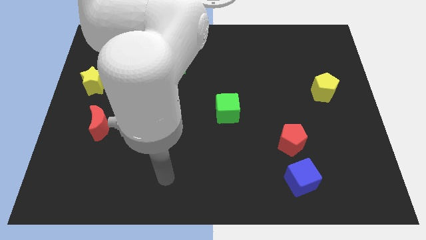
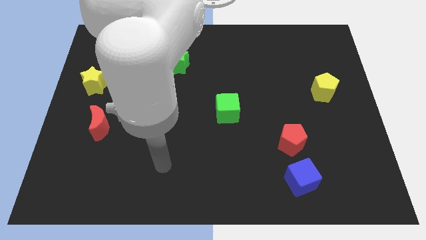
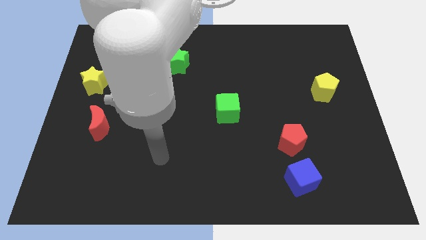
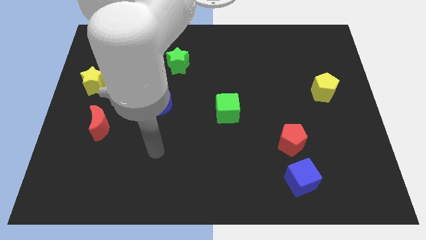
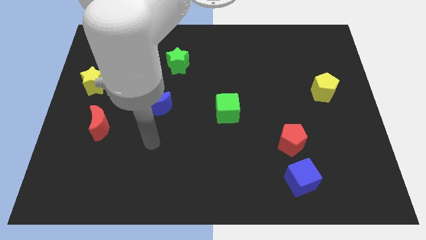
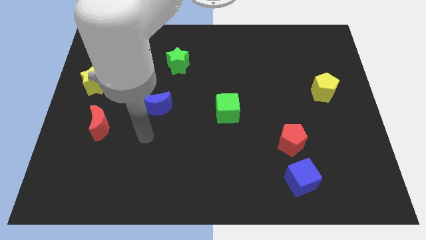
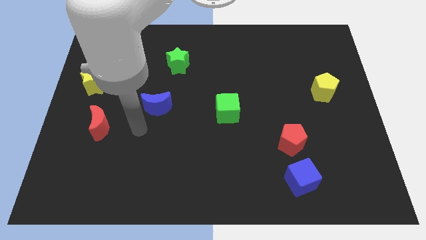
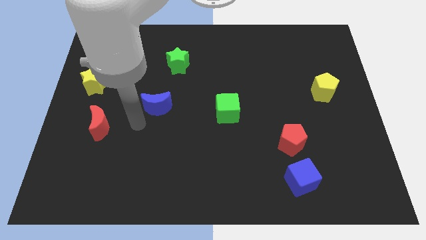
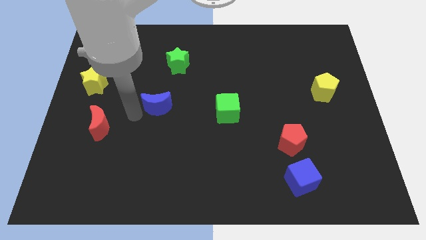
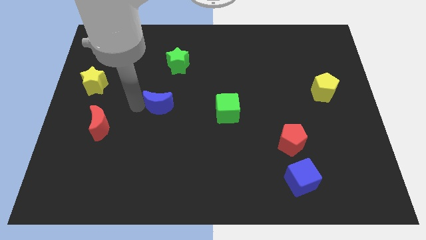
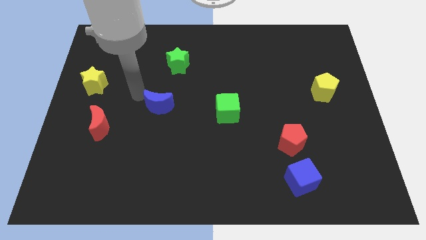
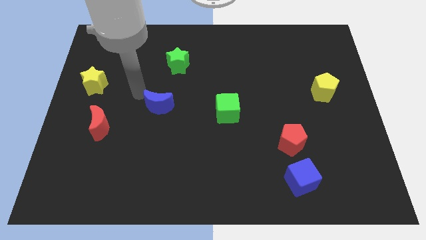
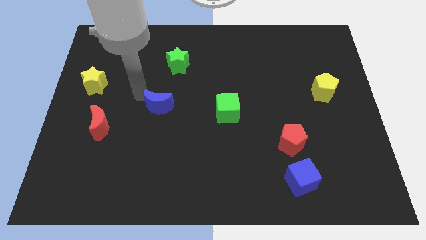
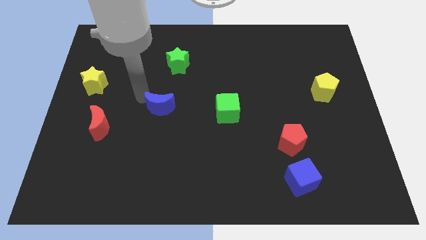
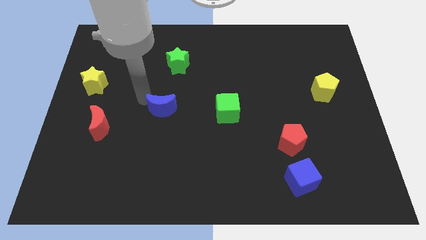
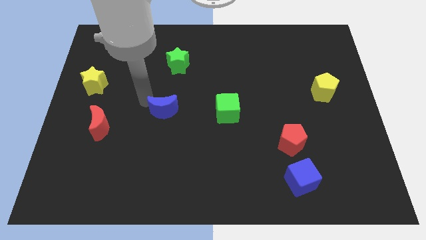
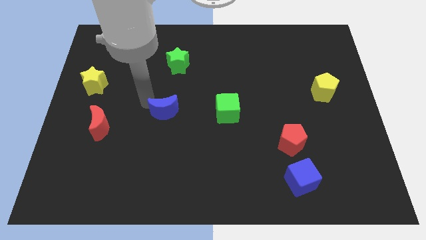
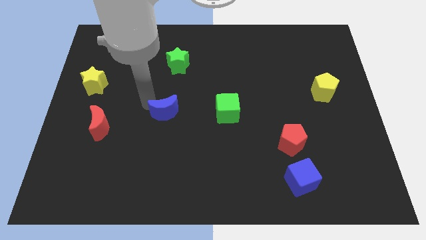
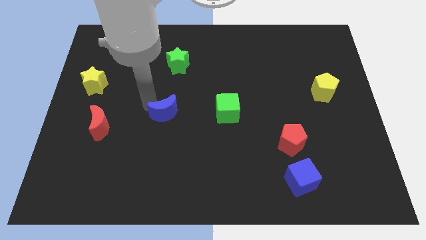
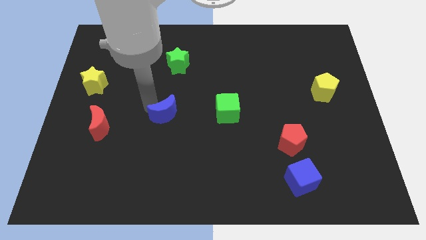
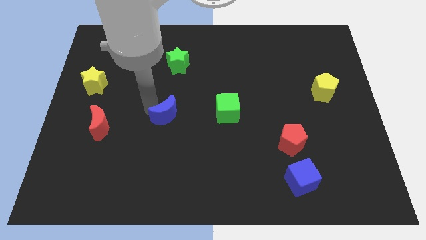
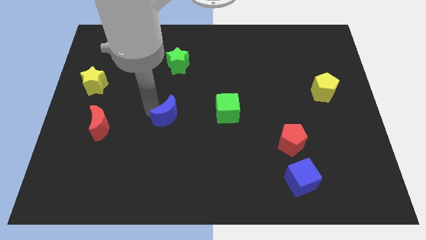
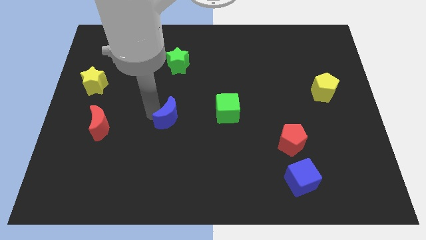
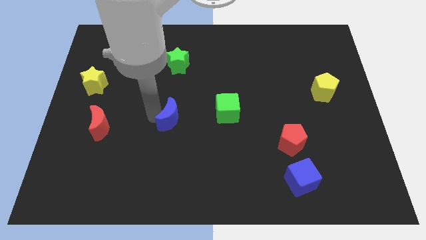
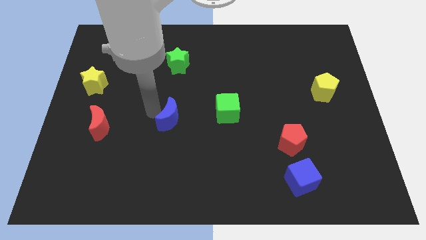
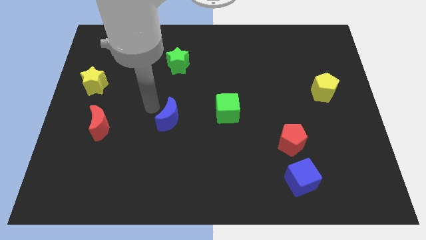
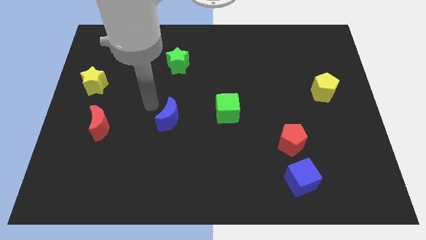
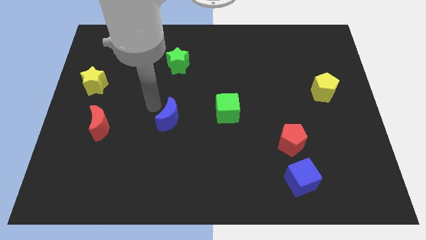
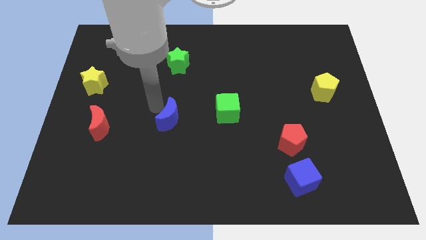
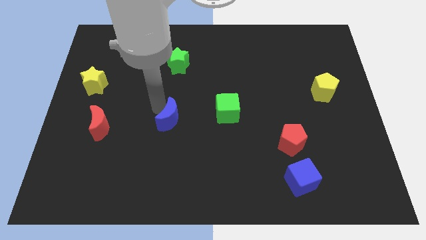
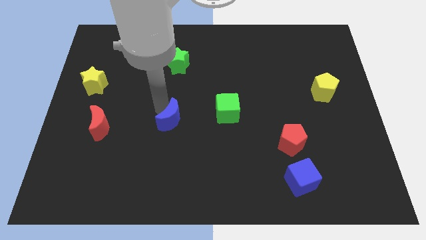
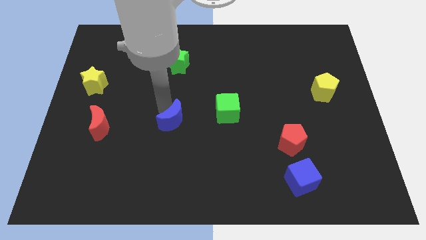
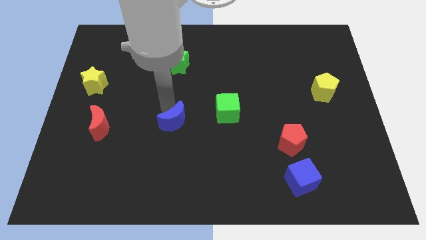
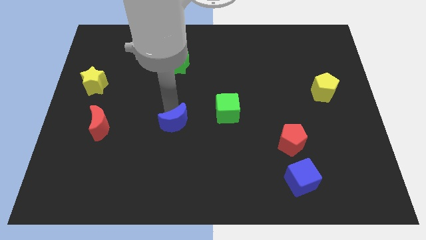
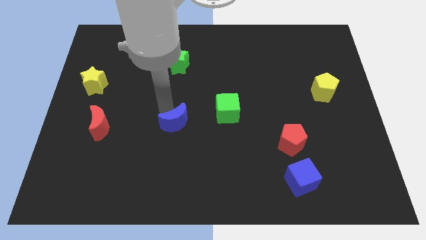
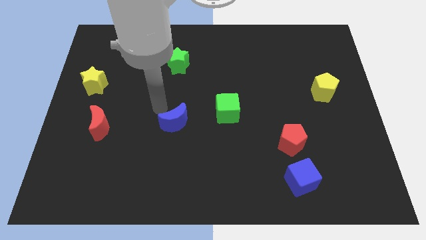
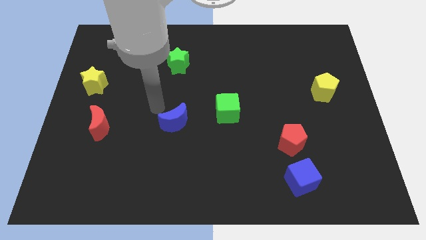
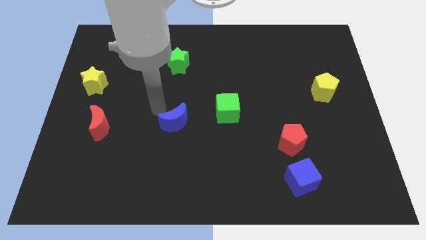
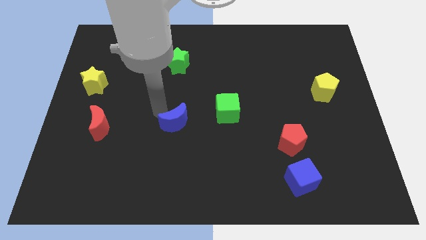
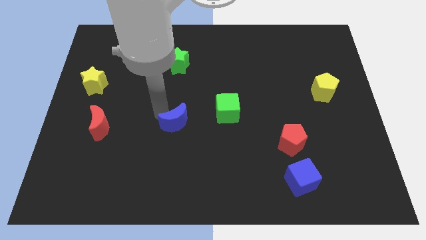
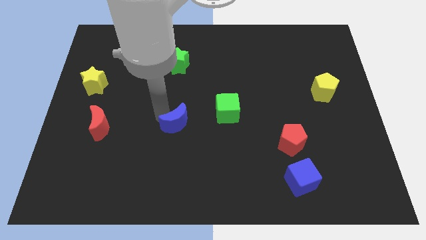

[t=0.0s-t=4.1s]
push the blue moon a little bit diagonally downwards and to the right

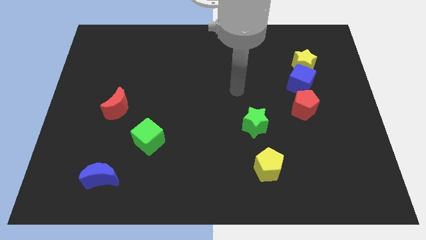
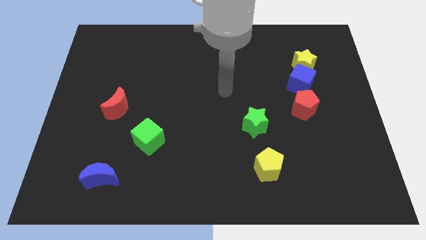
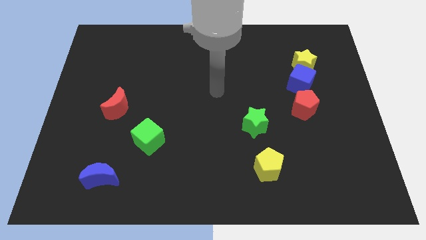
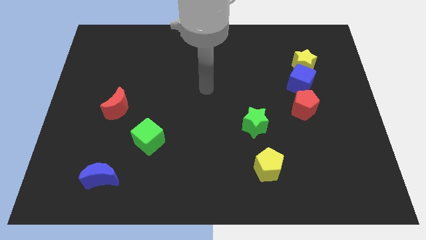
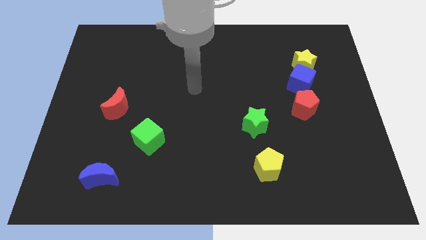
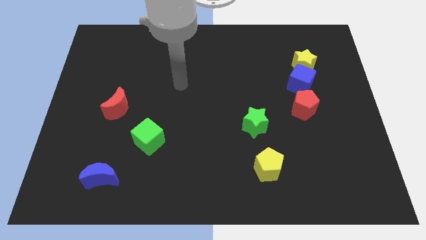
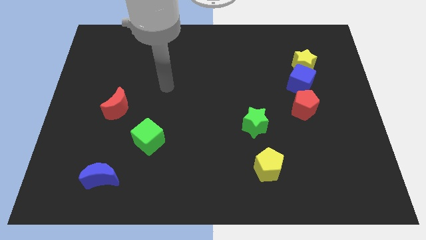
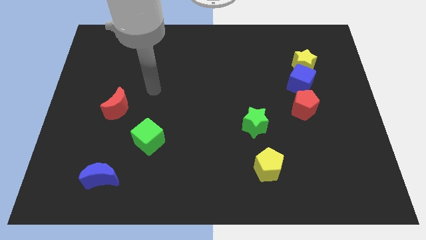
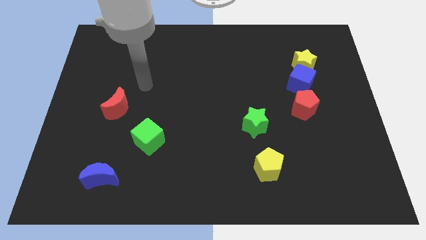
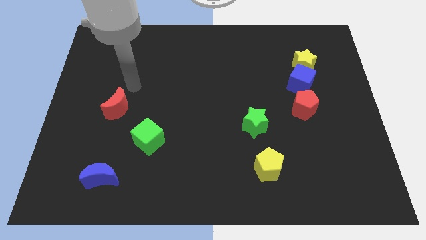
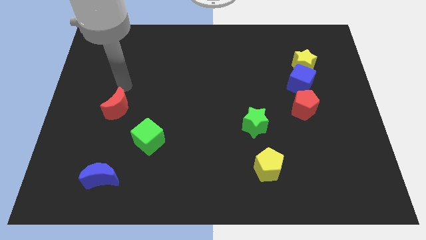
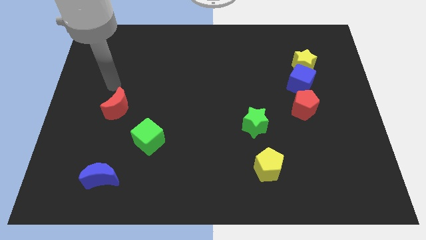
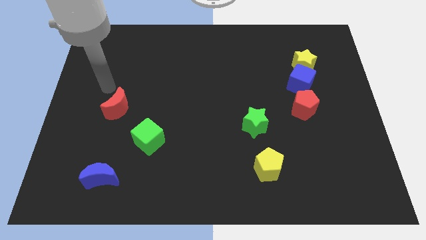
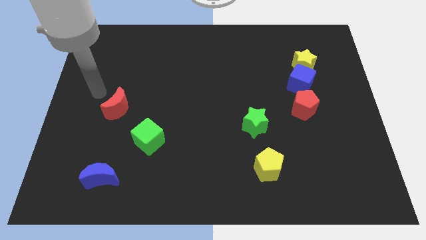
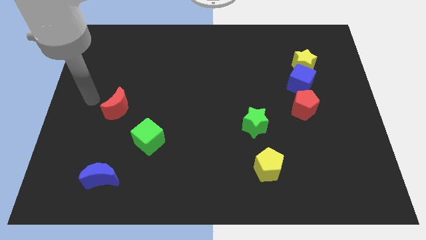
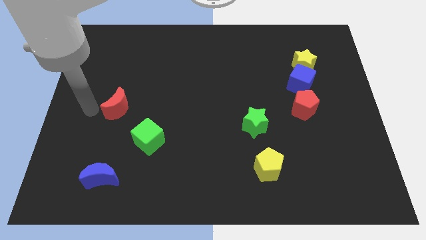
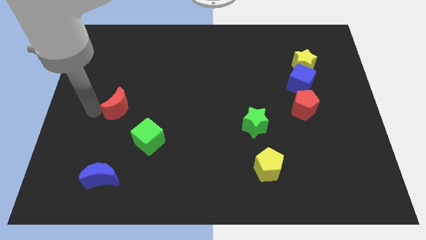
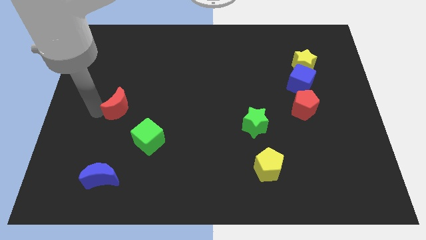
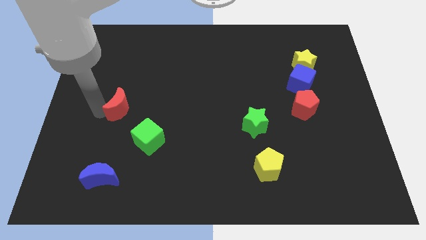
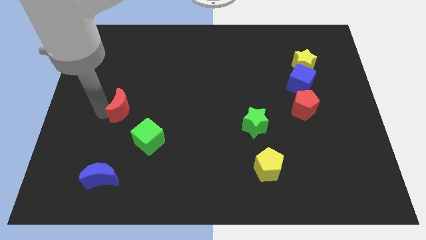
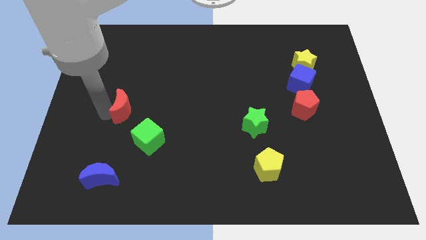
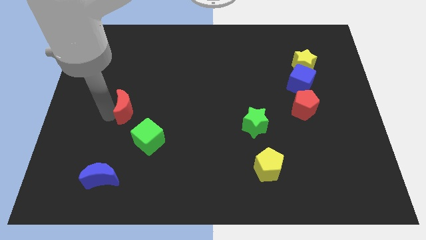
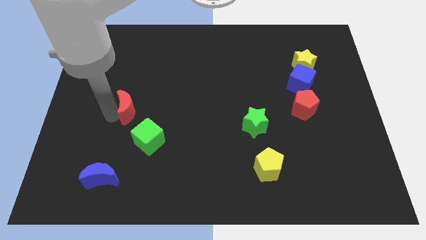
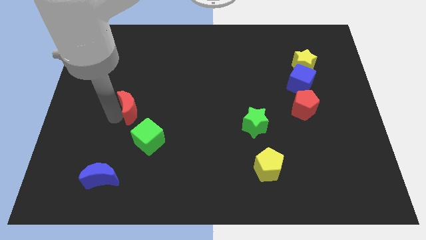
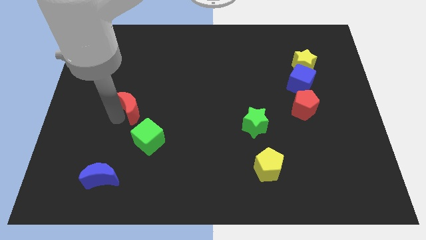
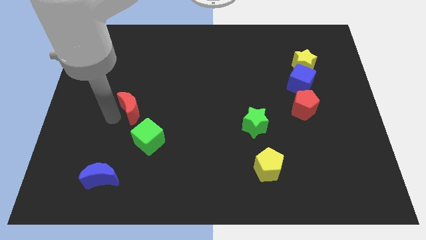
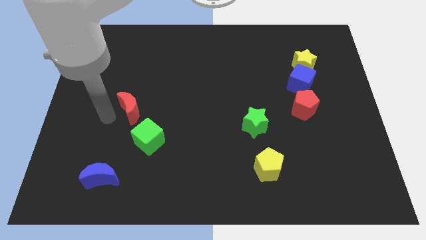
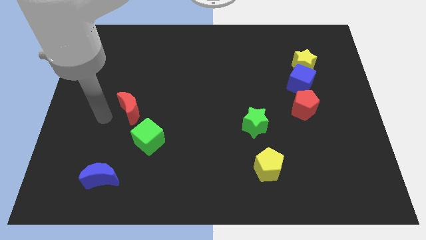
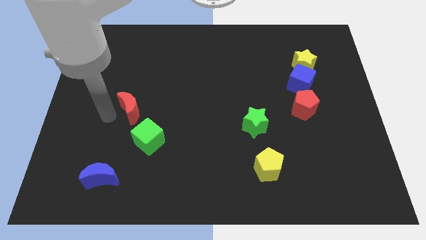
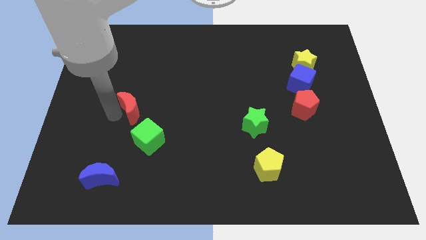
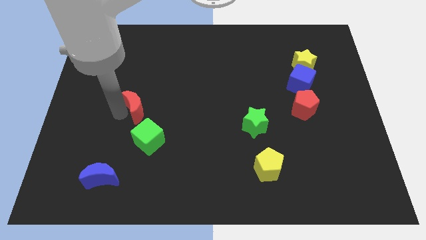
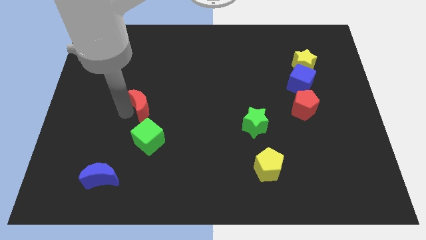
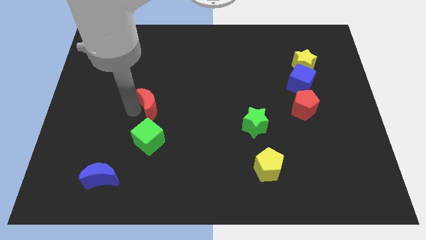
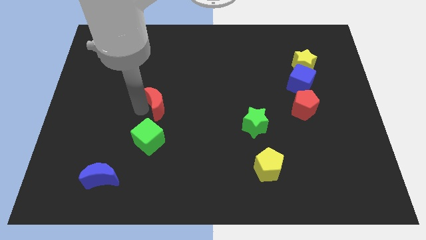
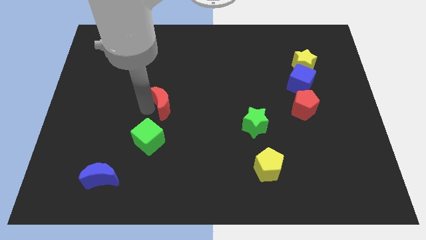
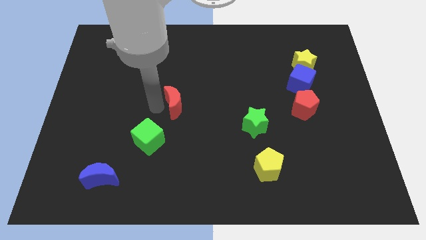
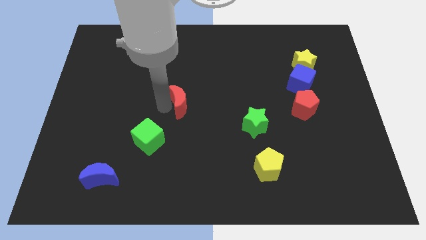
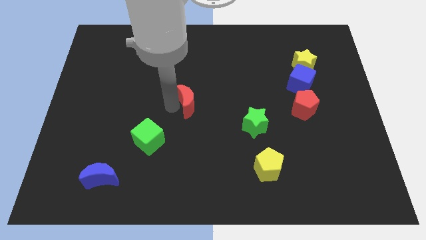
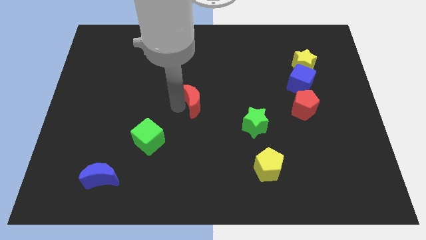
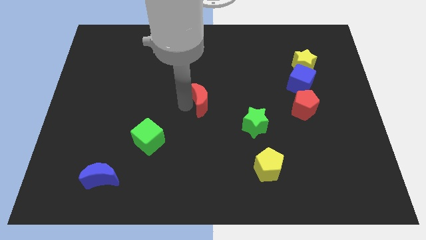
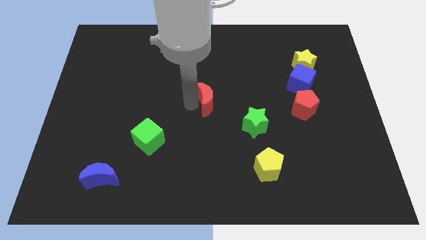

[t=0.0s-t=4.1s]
slide the red moon to the right
